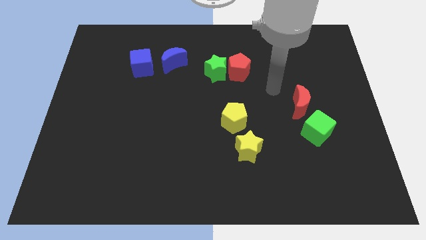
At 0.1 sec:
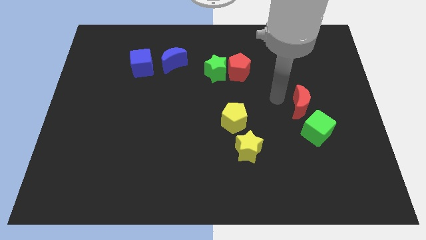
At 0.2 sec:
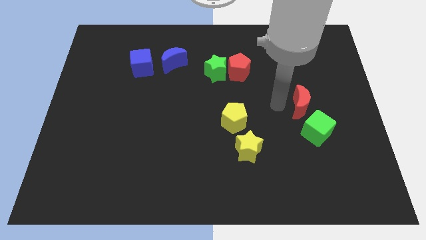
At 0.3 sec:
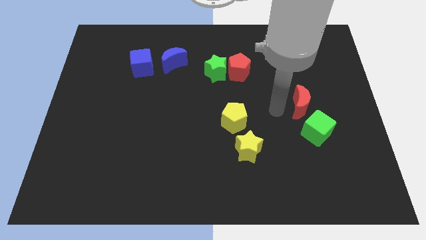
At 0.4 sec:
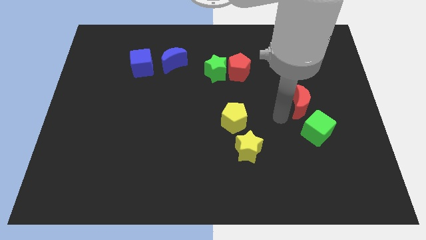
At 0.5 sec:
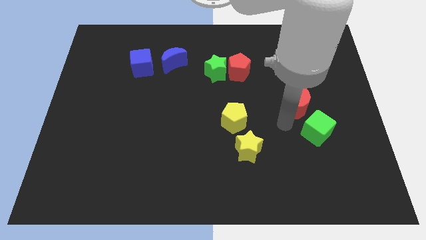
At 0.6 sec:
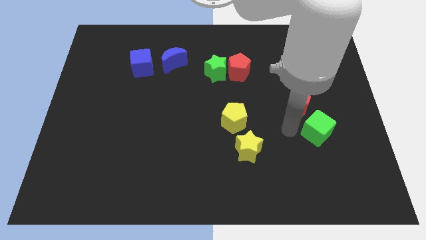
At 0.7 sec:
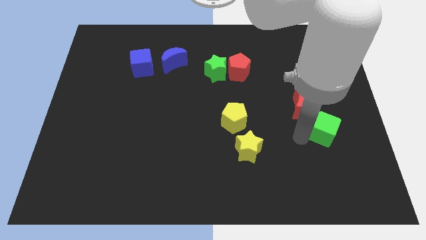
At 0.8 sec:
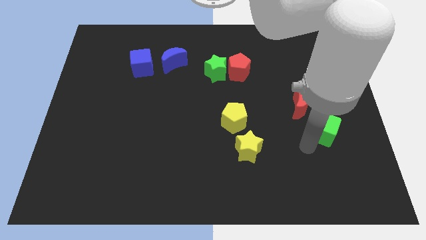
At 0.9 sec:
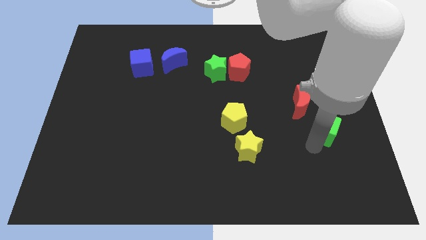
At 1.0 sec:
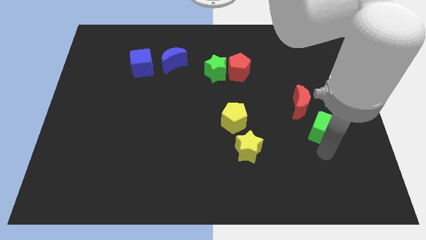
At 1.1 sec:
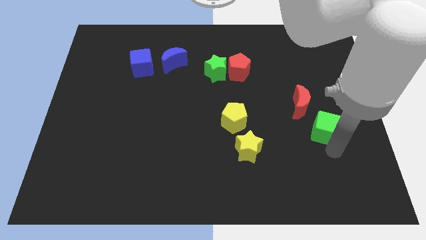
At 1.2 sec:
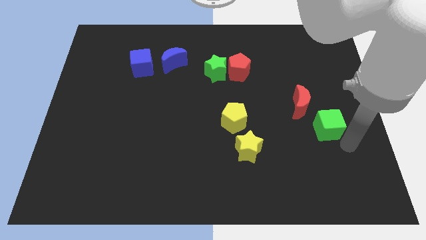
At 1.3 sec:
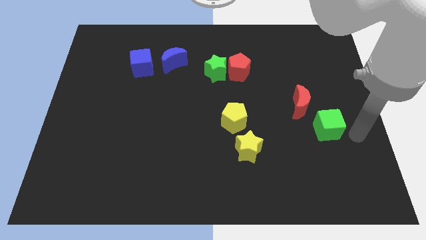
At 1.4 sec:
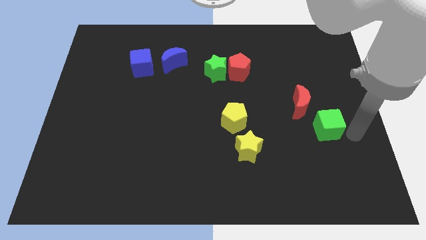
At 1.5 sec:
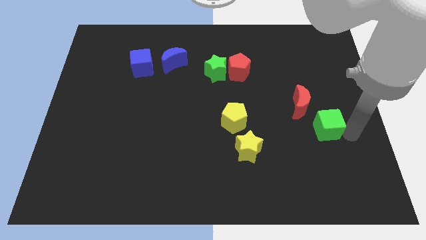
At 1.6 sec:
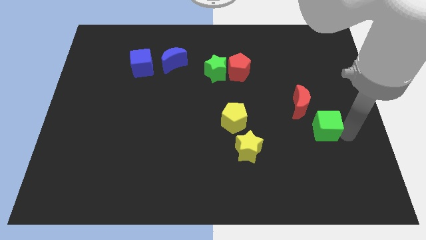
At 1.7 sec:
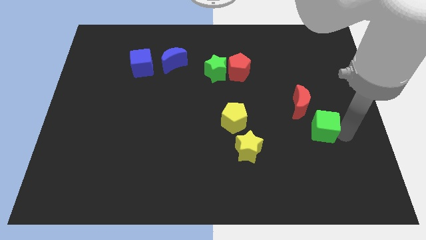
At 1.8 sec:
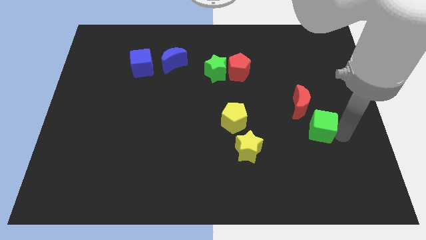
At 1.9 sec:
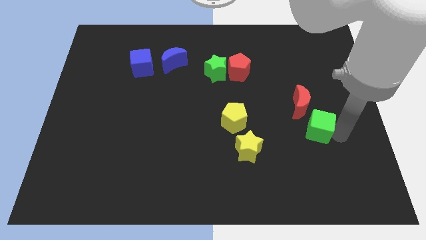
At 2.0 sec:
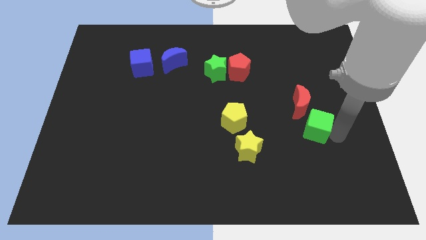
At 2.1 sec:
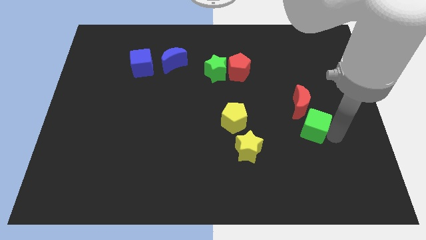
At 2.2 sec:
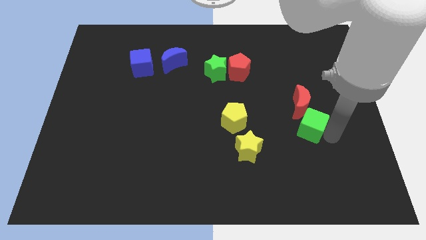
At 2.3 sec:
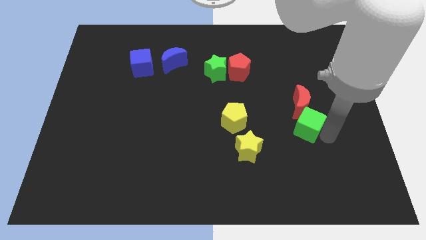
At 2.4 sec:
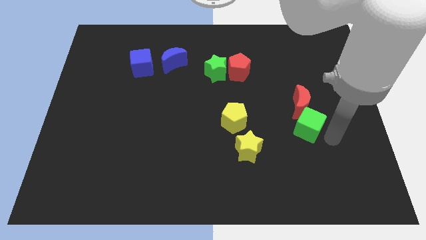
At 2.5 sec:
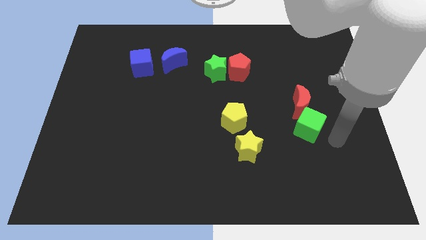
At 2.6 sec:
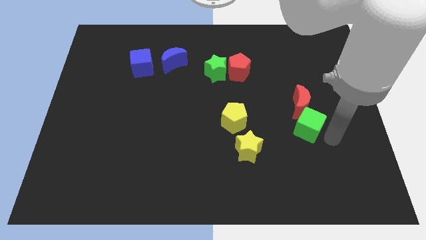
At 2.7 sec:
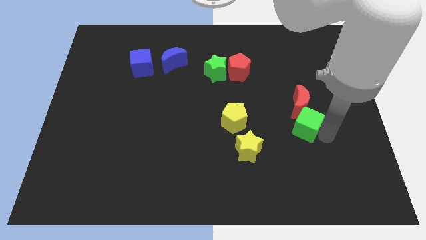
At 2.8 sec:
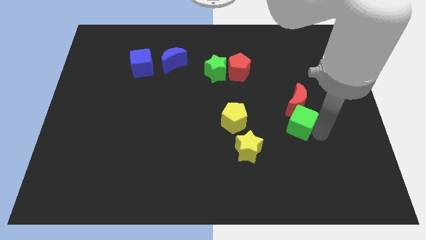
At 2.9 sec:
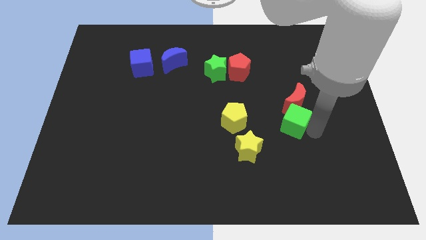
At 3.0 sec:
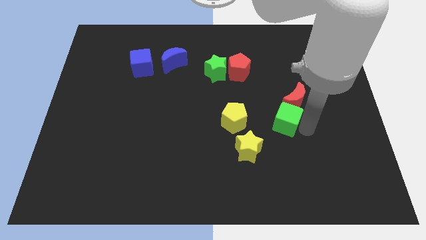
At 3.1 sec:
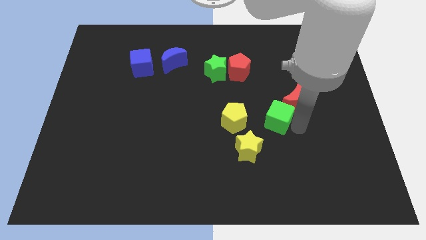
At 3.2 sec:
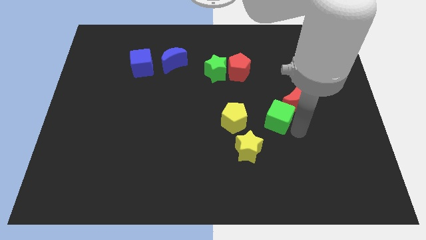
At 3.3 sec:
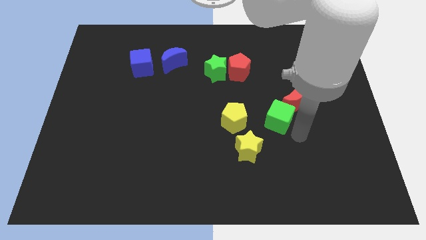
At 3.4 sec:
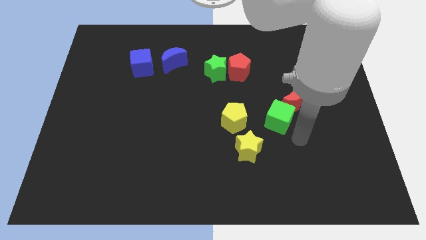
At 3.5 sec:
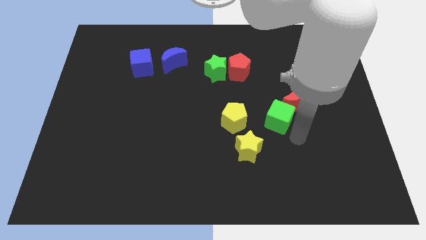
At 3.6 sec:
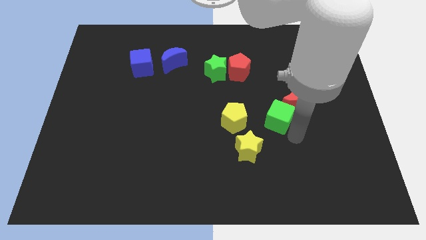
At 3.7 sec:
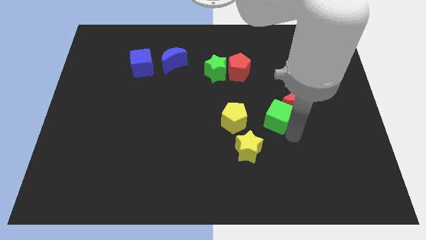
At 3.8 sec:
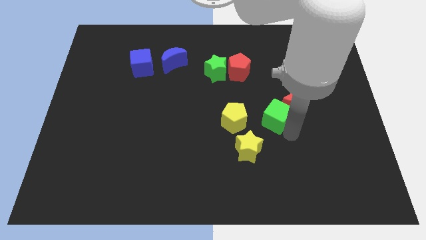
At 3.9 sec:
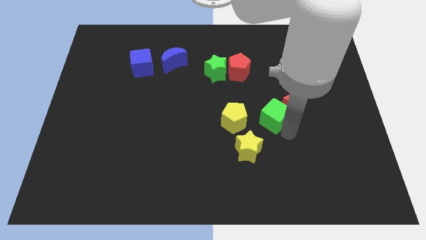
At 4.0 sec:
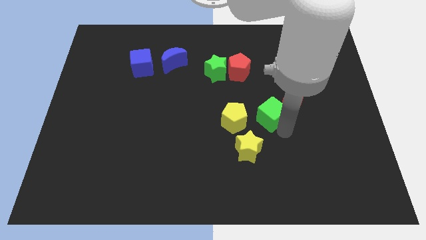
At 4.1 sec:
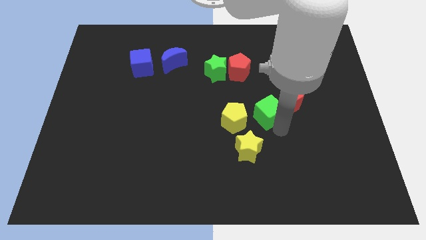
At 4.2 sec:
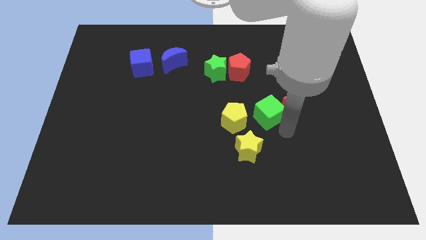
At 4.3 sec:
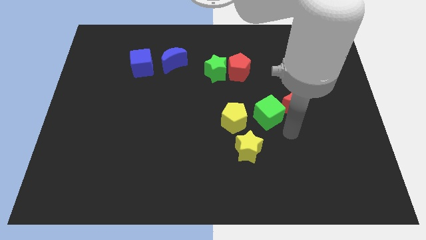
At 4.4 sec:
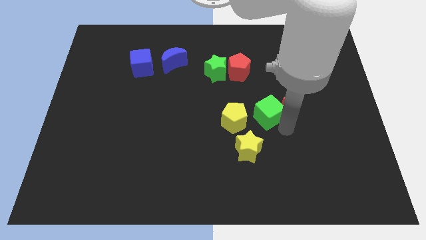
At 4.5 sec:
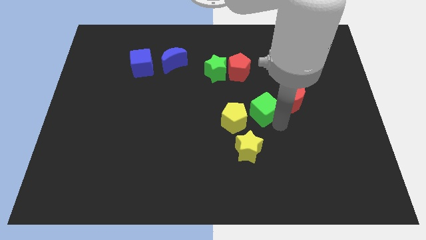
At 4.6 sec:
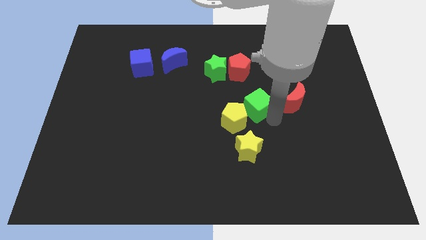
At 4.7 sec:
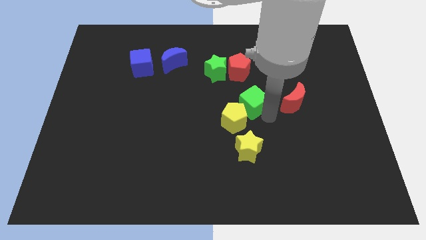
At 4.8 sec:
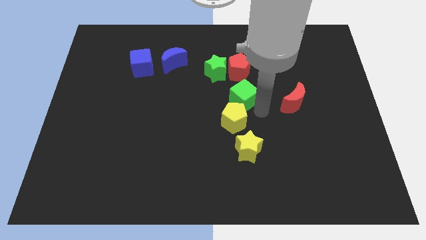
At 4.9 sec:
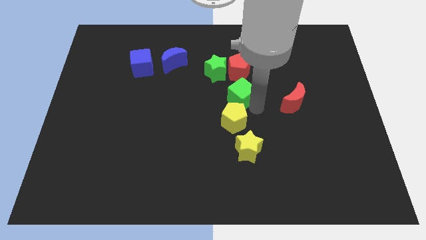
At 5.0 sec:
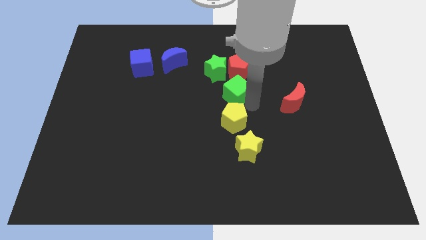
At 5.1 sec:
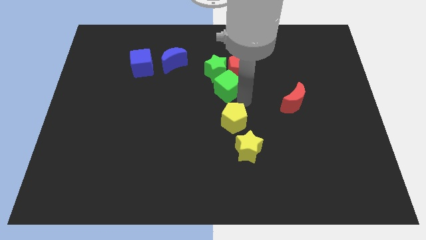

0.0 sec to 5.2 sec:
push the green cube to the green star

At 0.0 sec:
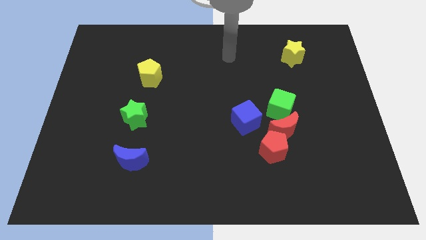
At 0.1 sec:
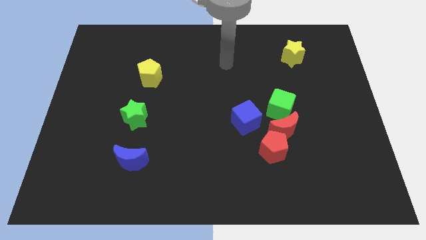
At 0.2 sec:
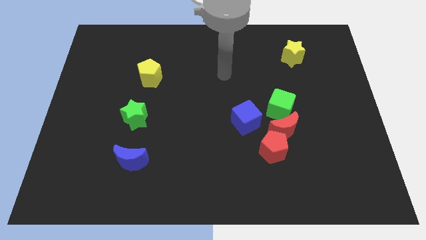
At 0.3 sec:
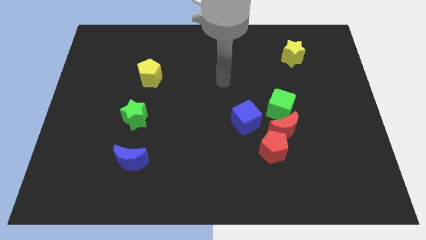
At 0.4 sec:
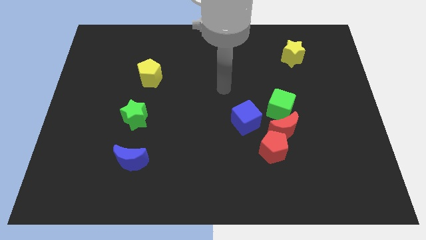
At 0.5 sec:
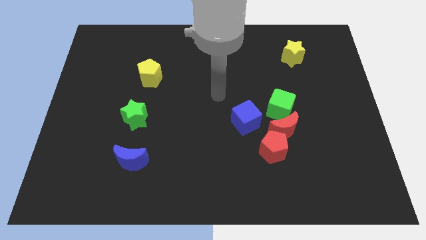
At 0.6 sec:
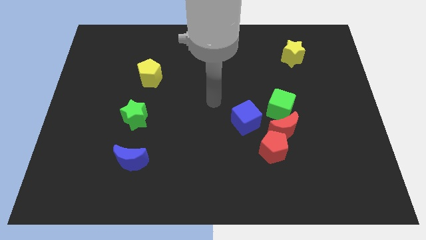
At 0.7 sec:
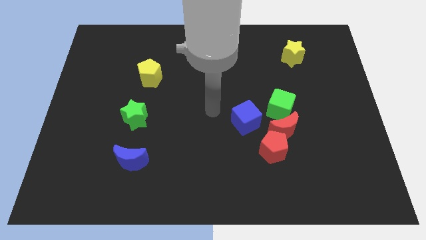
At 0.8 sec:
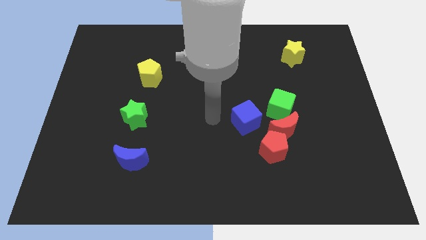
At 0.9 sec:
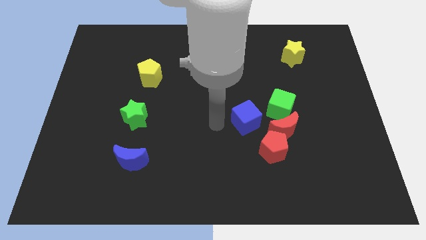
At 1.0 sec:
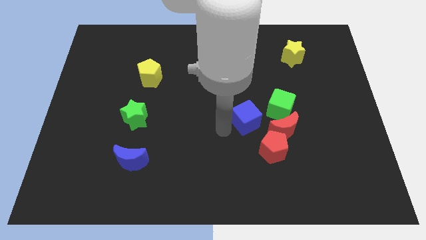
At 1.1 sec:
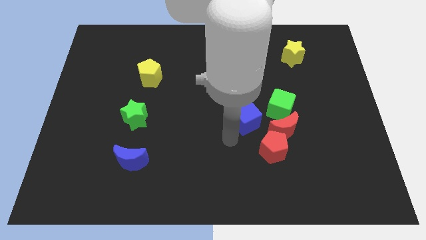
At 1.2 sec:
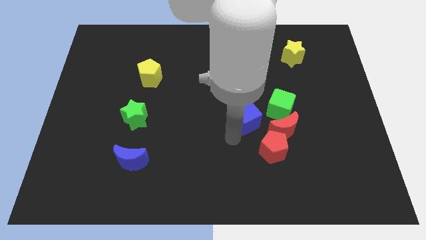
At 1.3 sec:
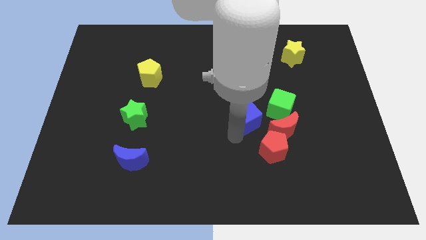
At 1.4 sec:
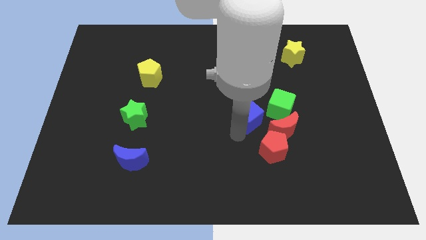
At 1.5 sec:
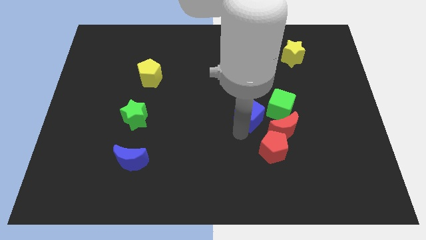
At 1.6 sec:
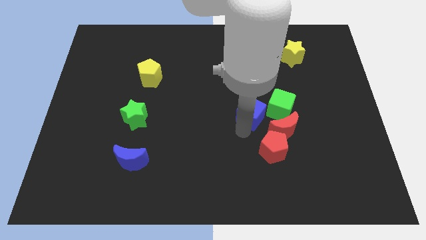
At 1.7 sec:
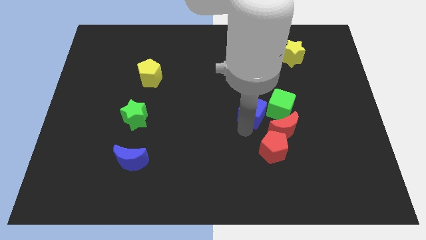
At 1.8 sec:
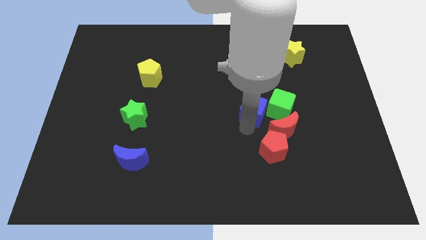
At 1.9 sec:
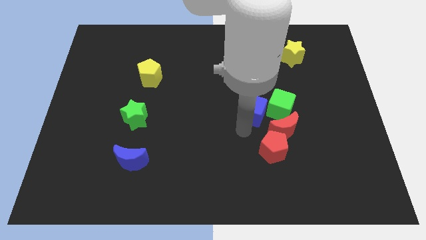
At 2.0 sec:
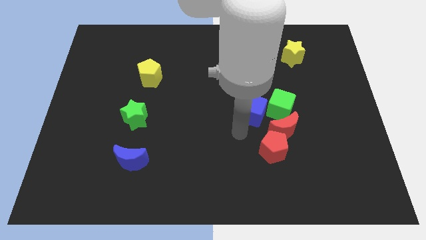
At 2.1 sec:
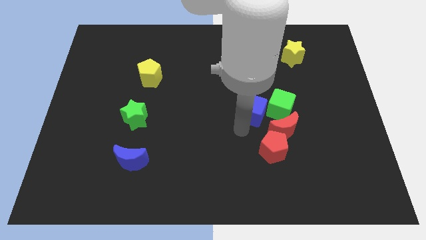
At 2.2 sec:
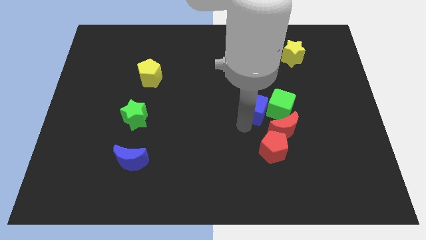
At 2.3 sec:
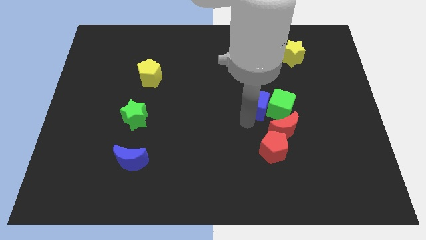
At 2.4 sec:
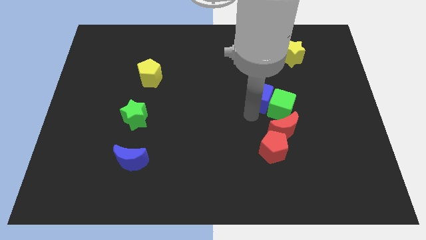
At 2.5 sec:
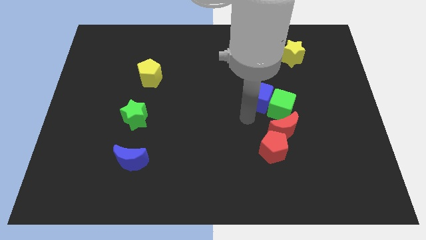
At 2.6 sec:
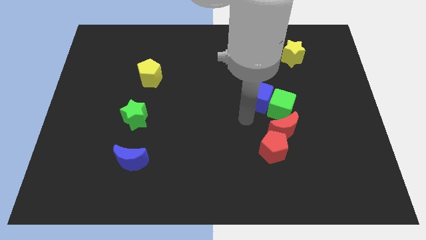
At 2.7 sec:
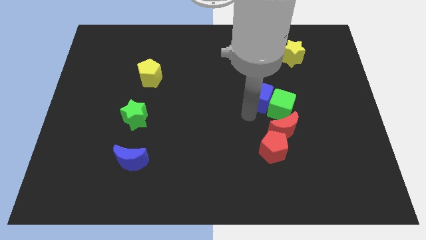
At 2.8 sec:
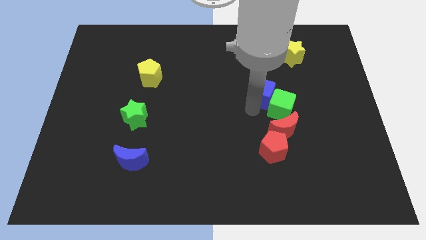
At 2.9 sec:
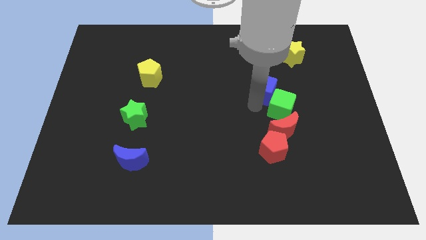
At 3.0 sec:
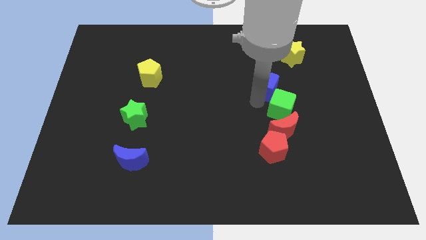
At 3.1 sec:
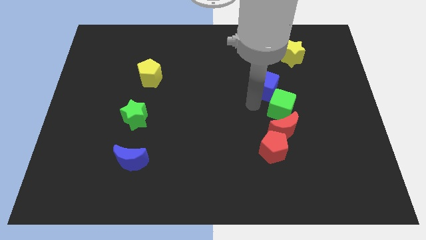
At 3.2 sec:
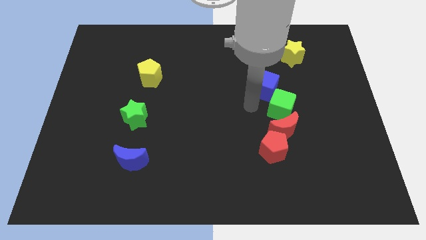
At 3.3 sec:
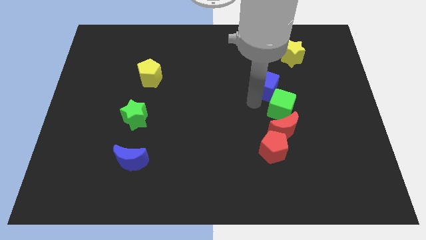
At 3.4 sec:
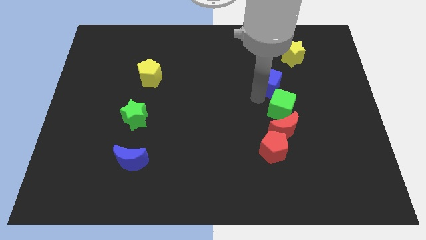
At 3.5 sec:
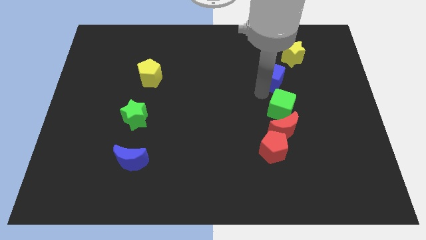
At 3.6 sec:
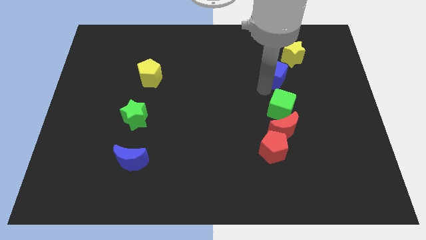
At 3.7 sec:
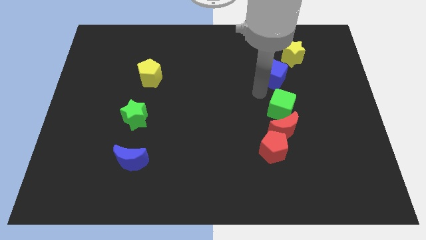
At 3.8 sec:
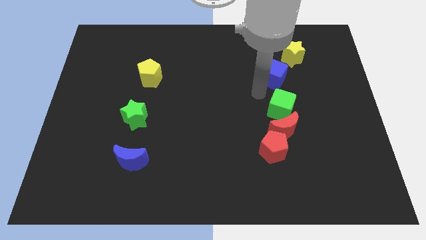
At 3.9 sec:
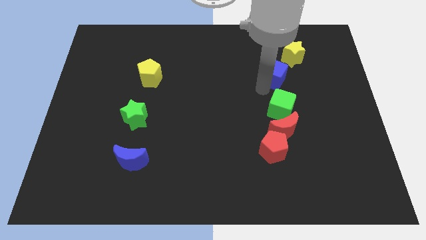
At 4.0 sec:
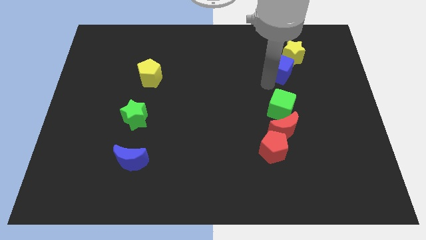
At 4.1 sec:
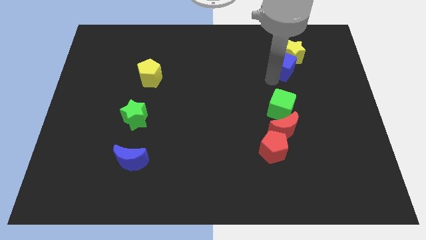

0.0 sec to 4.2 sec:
move the blue cube next to the yellow star
